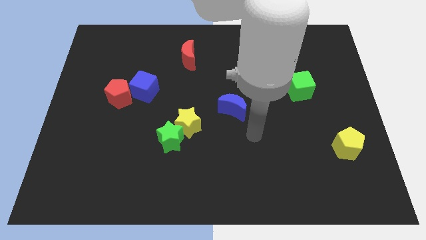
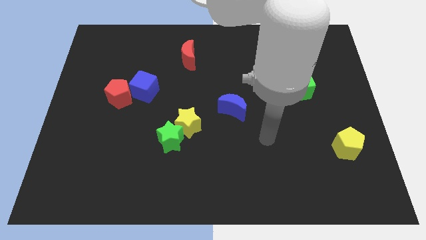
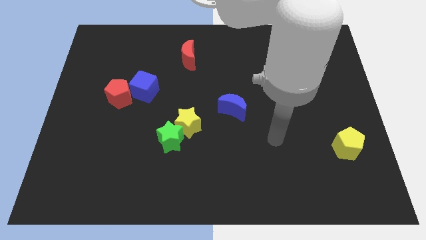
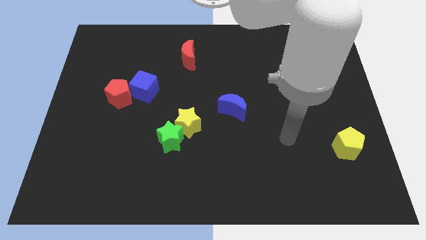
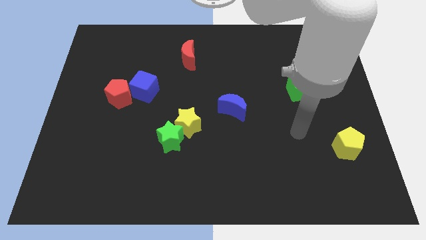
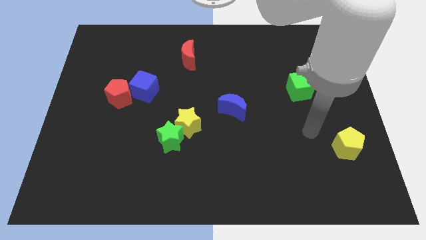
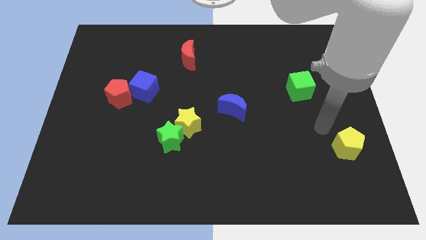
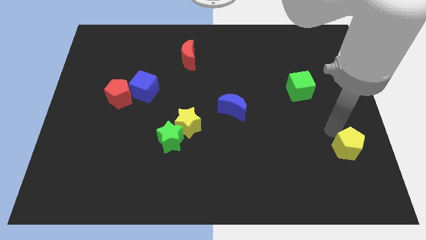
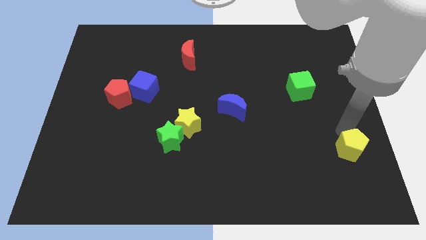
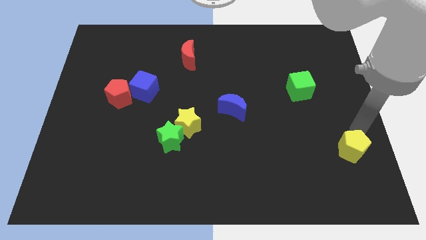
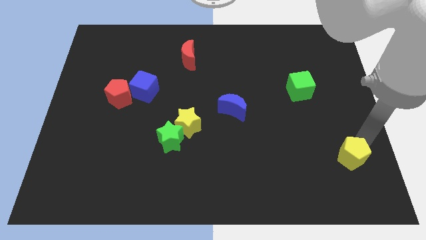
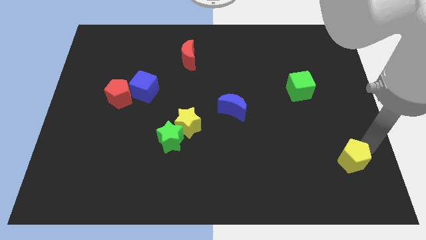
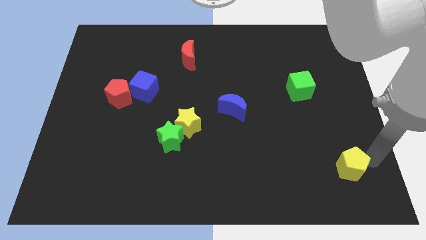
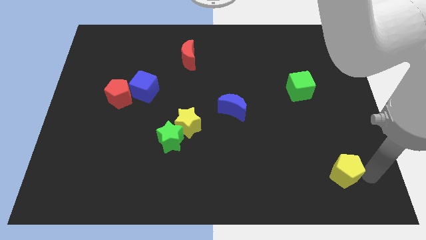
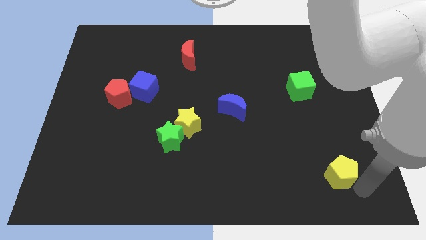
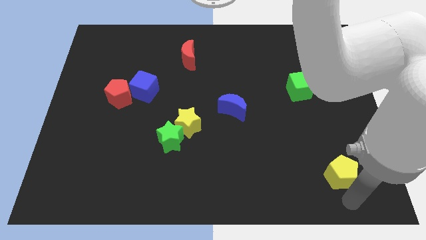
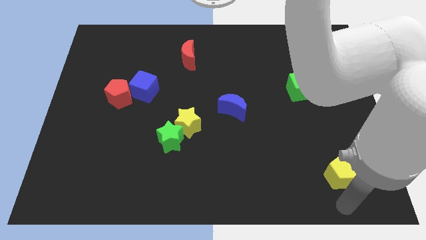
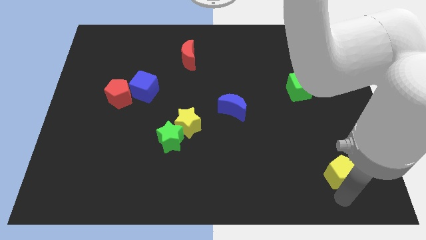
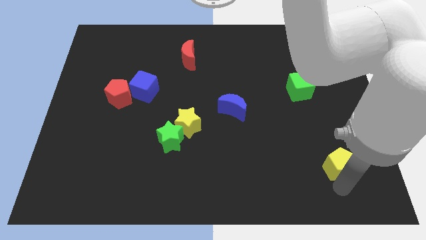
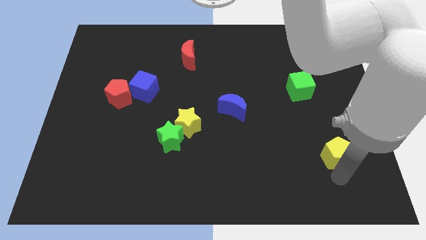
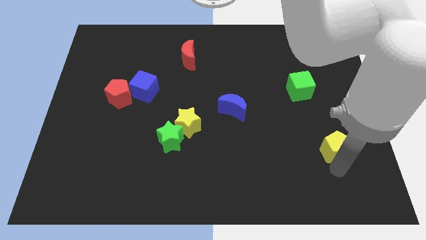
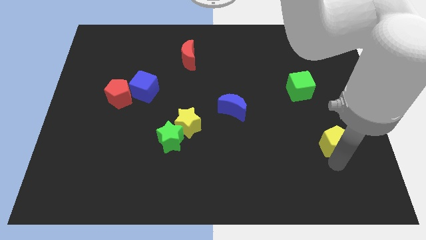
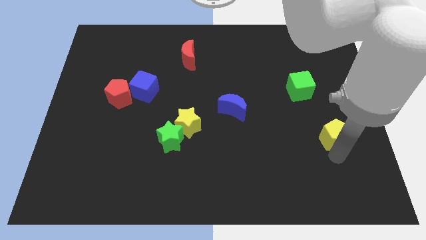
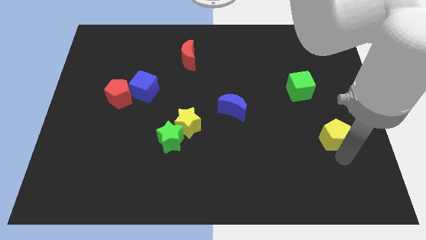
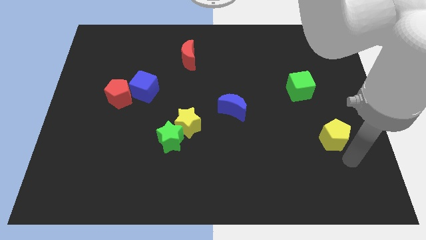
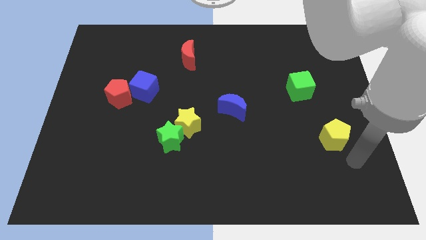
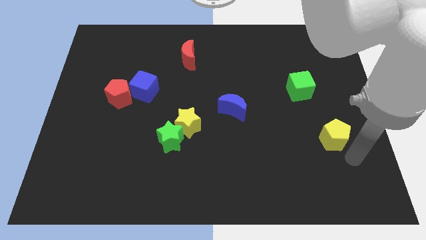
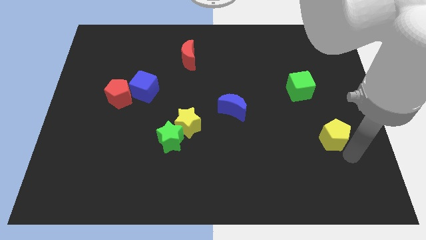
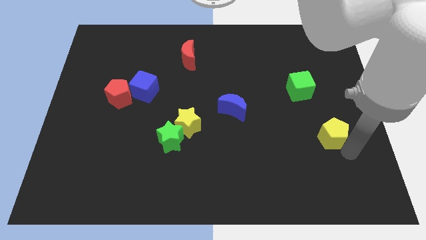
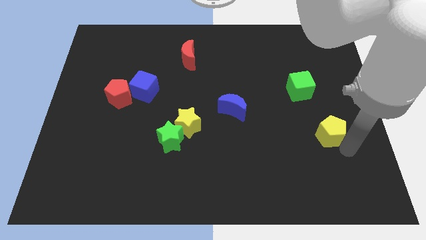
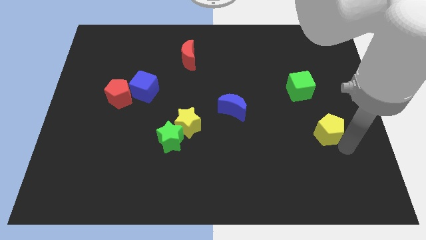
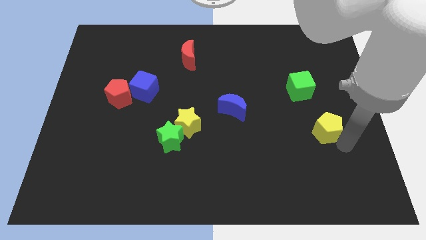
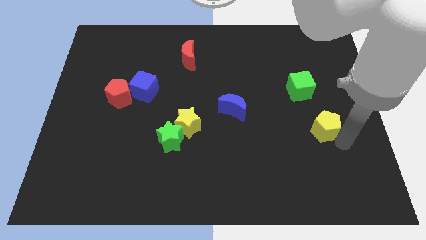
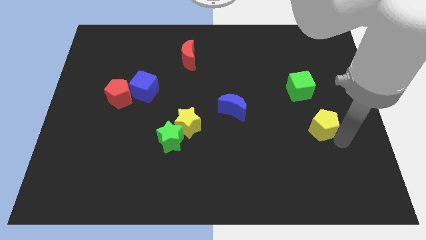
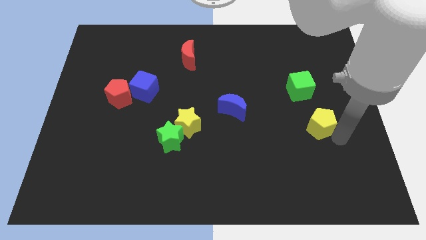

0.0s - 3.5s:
slide the yellow pentagon somewhat upwards and then left

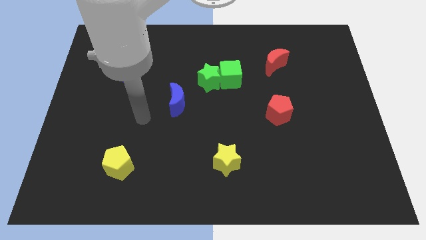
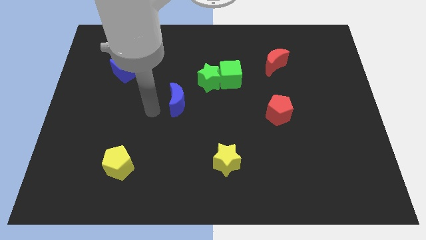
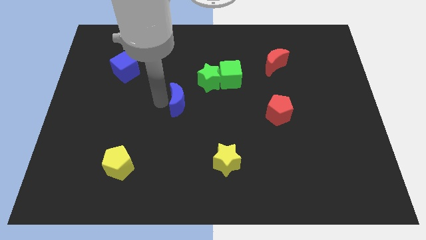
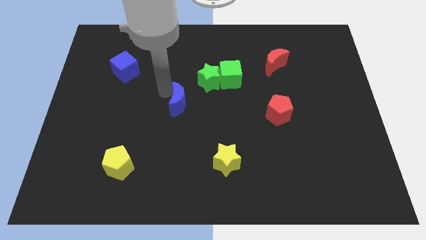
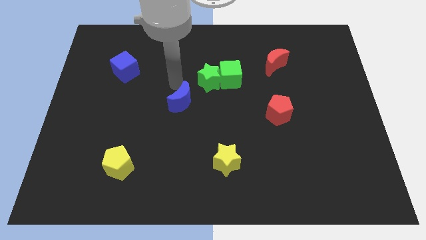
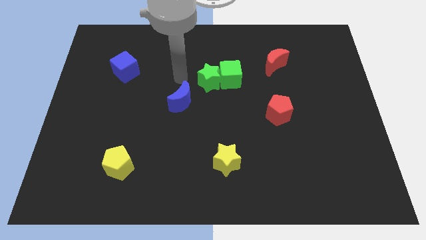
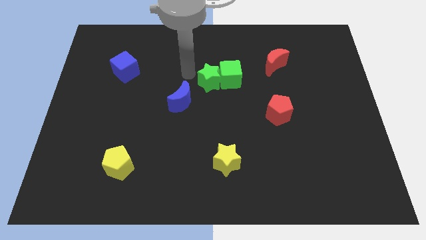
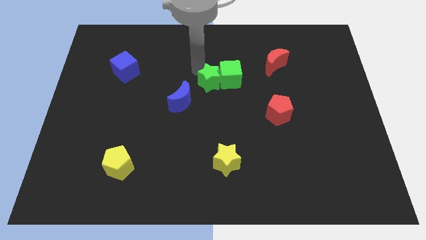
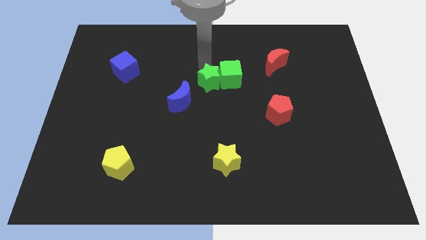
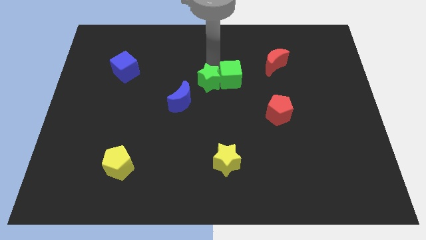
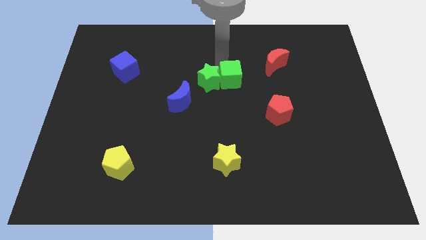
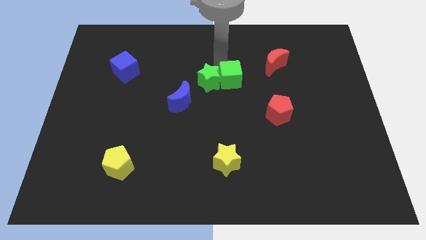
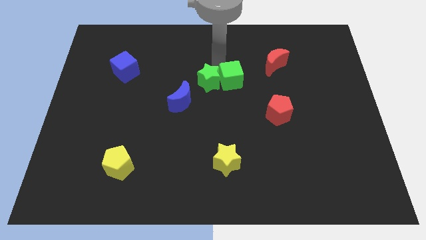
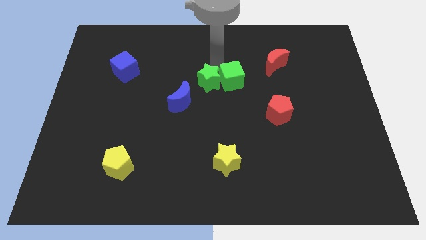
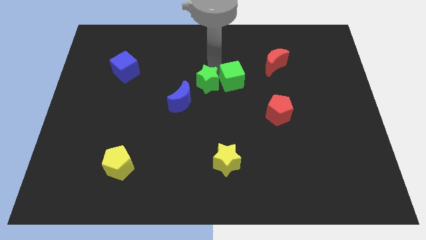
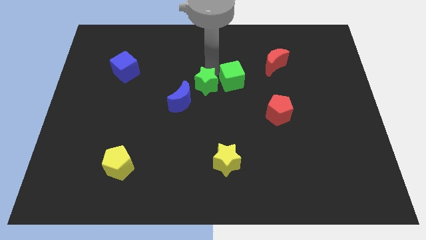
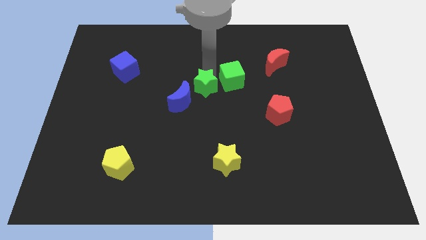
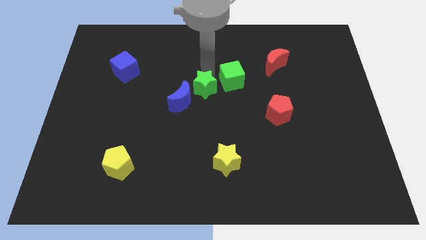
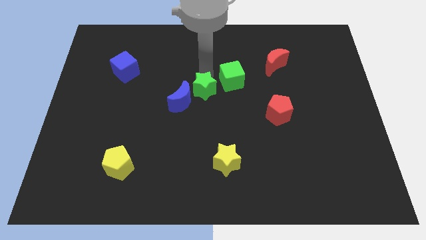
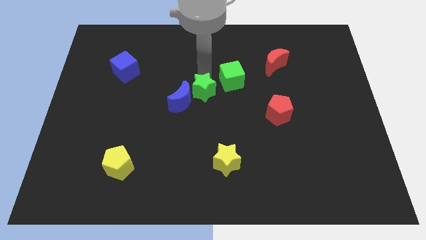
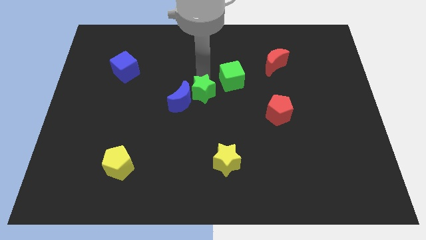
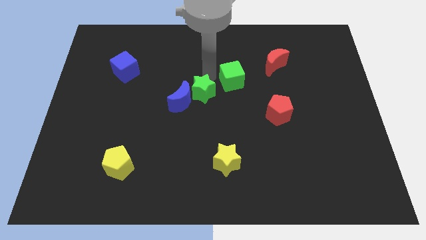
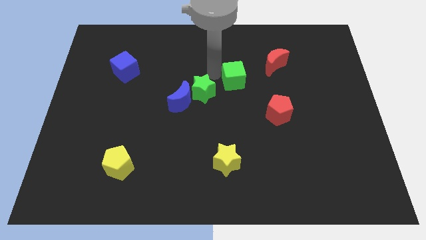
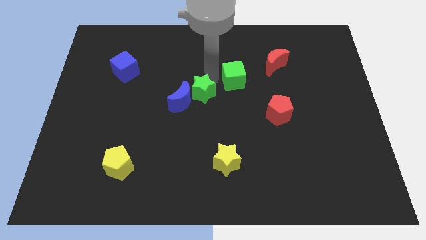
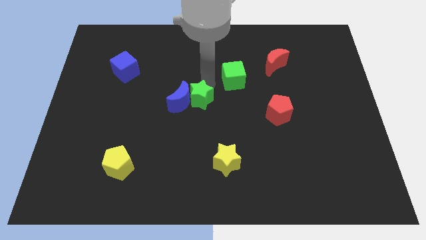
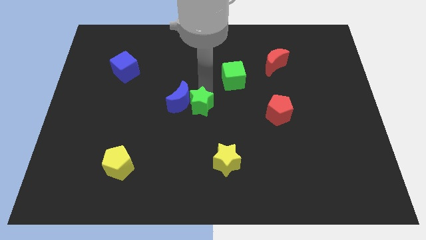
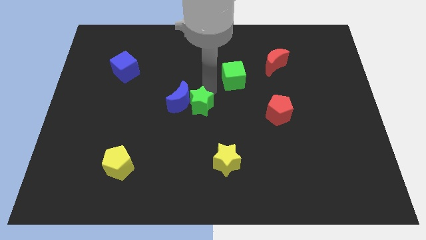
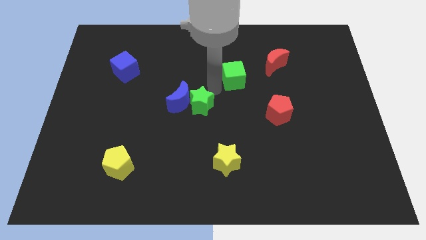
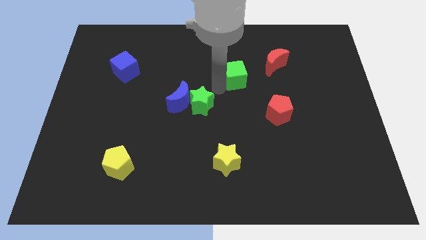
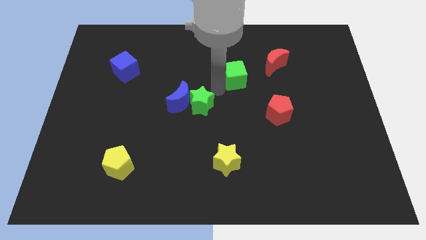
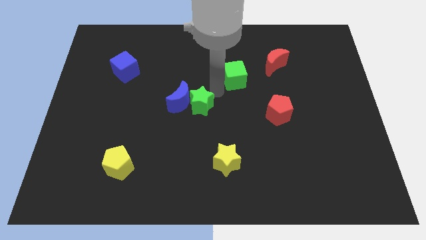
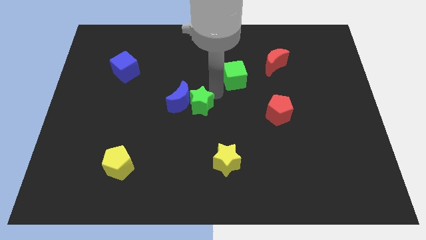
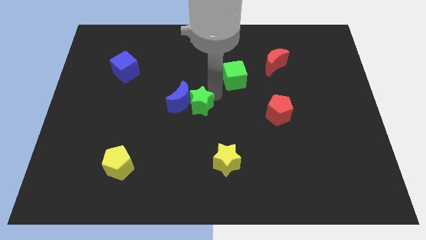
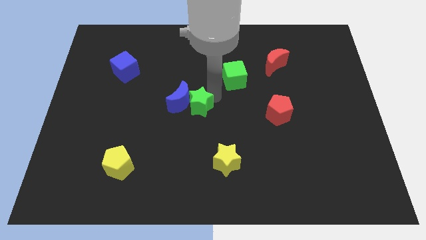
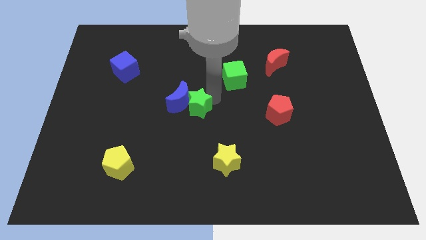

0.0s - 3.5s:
slightly push the green star downwards and to the left

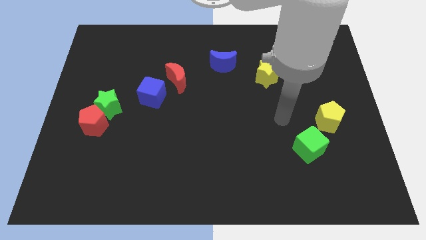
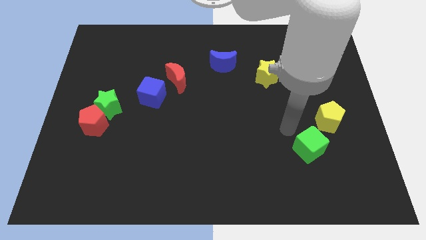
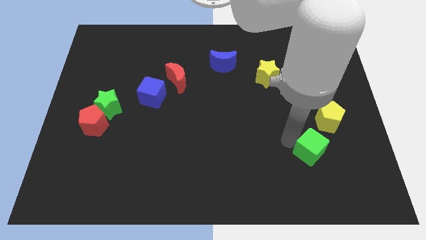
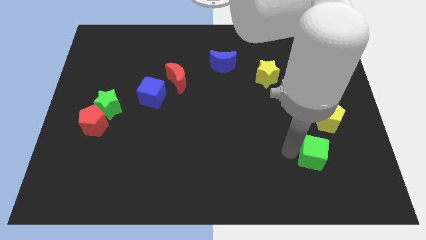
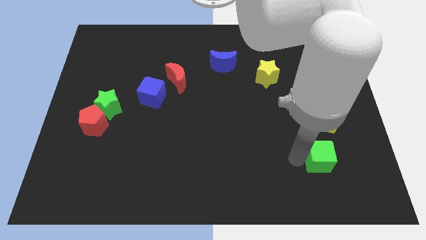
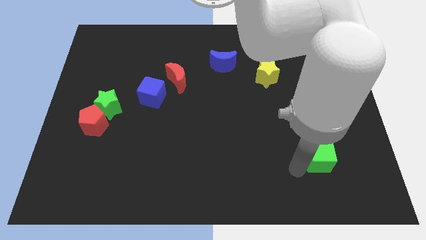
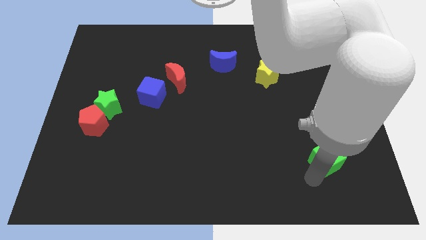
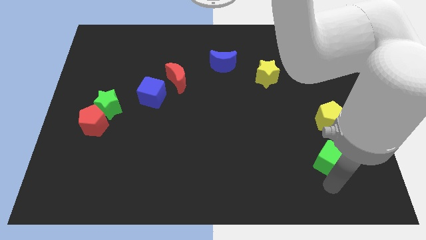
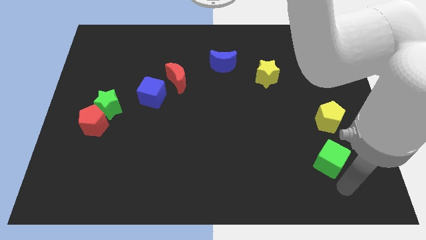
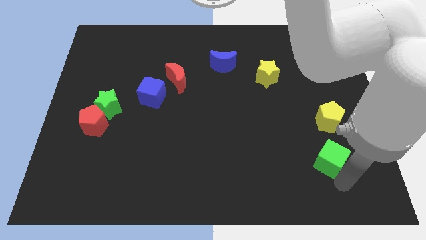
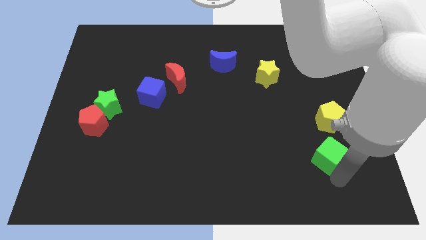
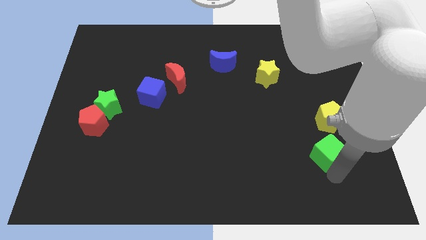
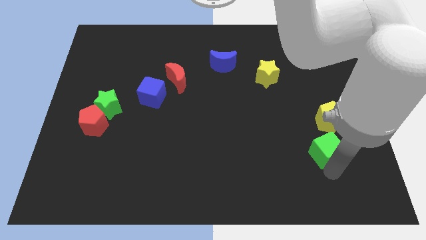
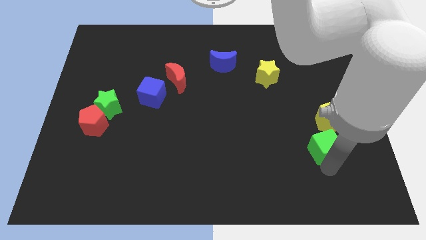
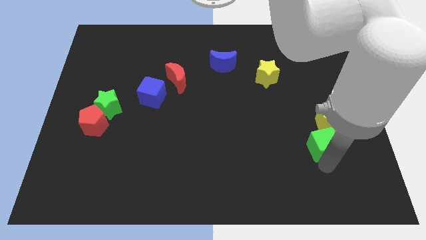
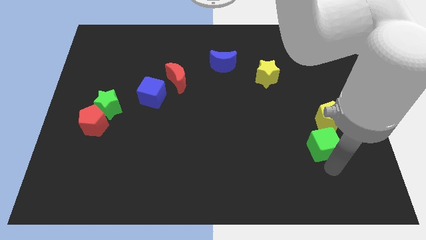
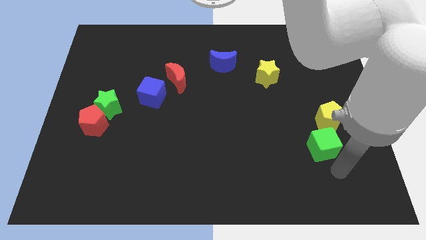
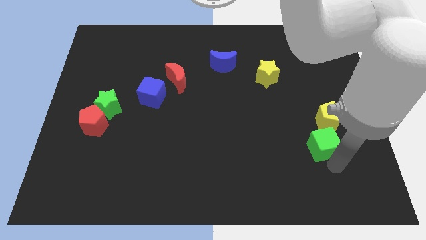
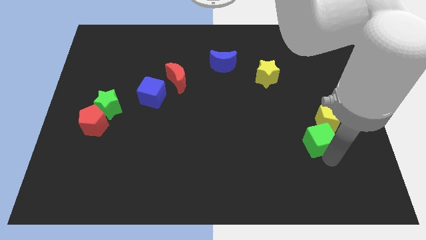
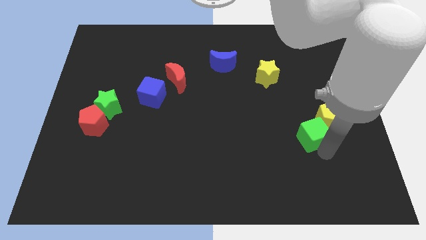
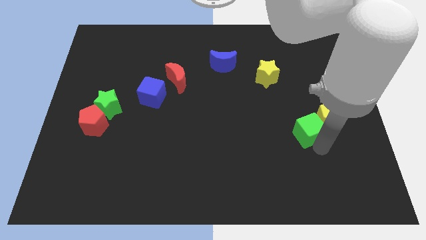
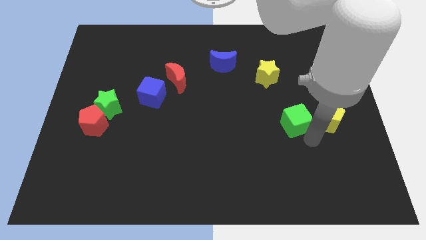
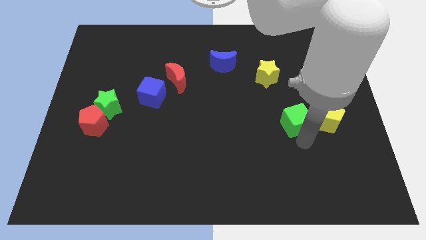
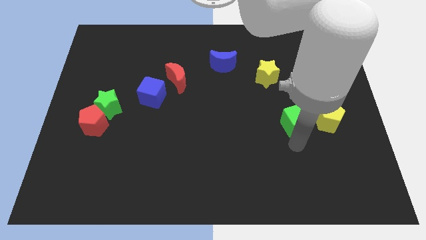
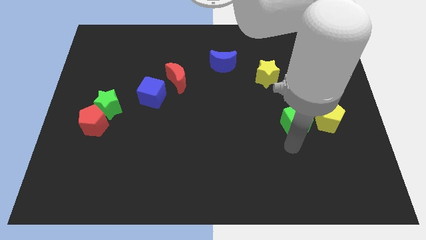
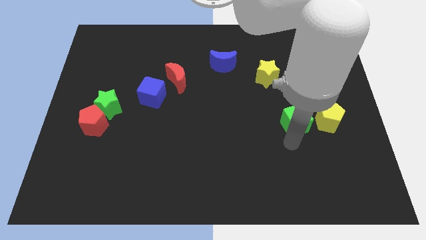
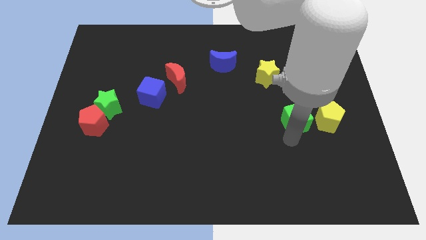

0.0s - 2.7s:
push the green cube a little bit upwards
